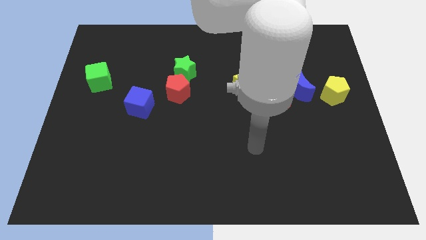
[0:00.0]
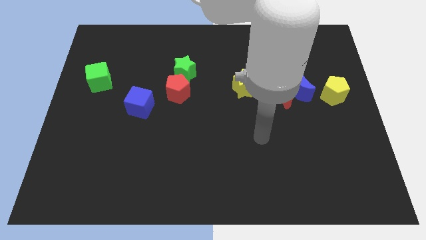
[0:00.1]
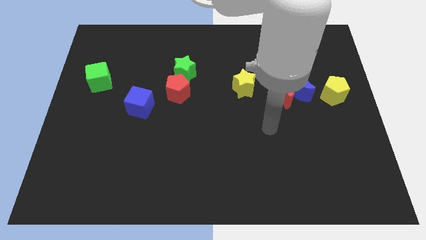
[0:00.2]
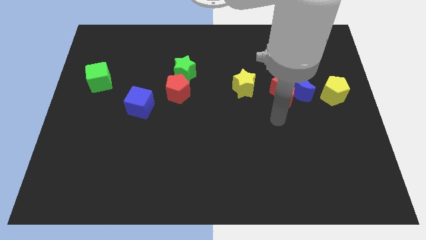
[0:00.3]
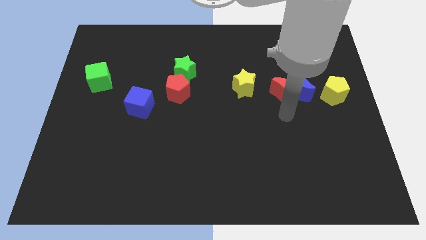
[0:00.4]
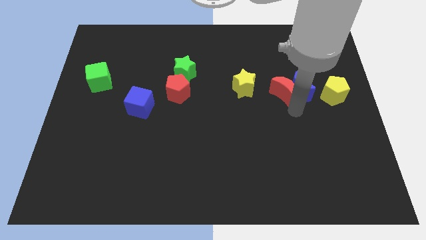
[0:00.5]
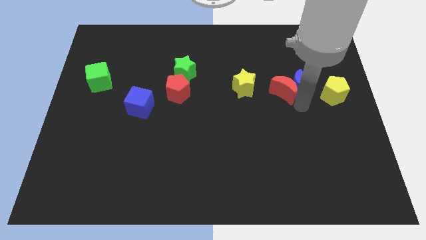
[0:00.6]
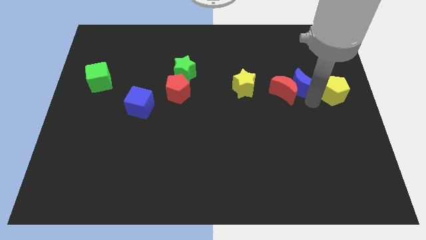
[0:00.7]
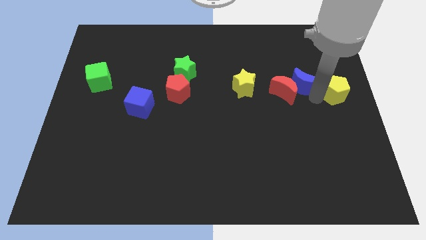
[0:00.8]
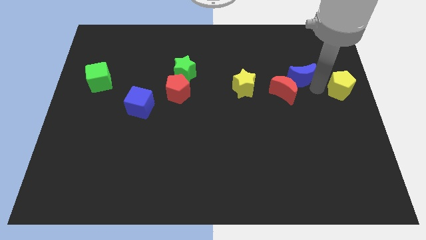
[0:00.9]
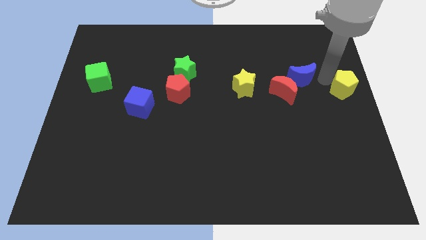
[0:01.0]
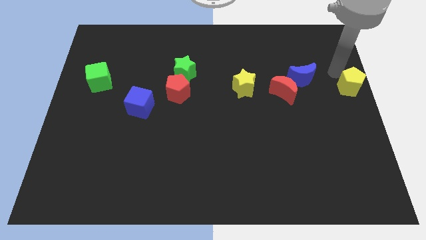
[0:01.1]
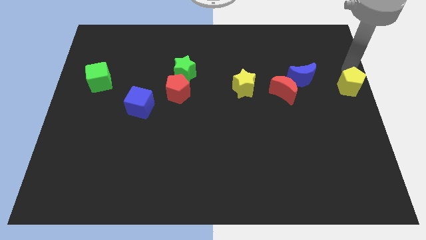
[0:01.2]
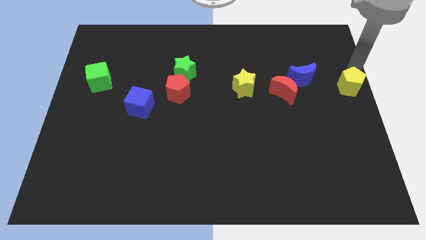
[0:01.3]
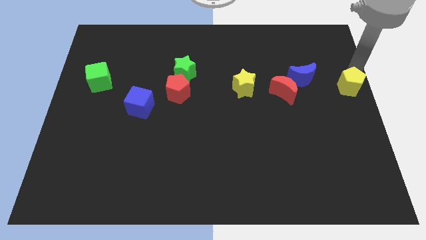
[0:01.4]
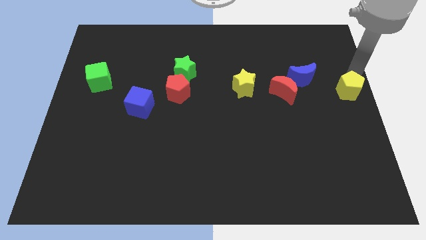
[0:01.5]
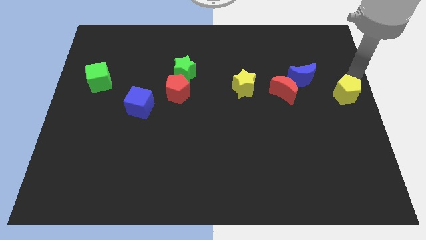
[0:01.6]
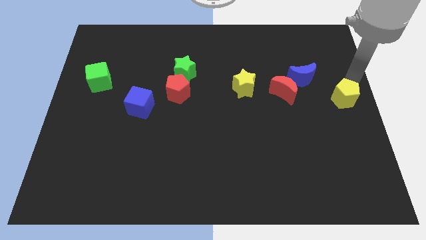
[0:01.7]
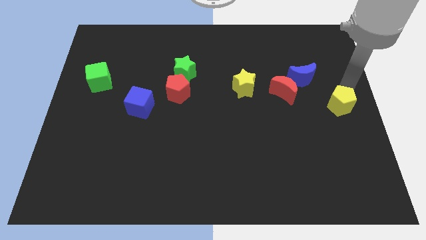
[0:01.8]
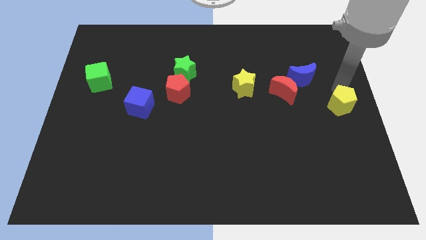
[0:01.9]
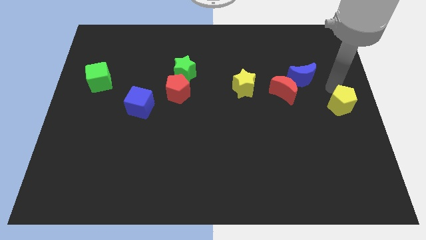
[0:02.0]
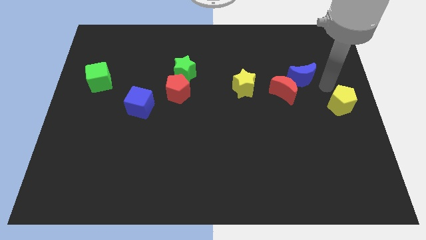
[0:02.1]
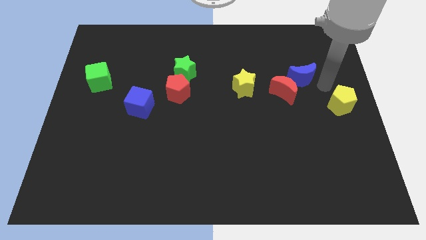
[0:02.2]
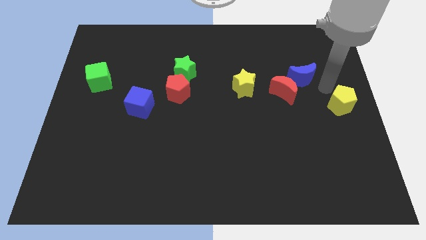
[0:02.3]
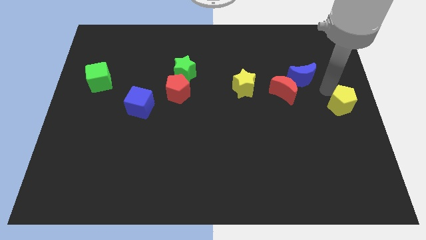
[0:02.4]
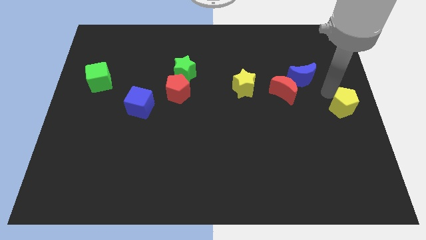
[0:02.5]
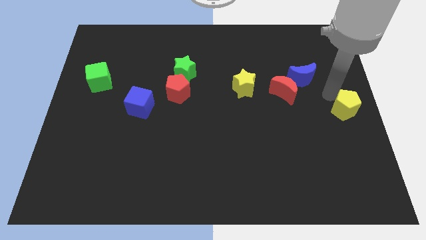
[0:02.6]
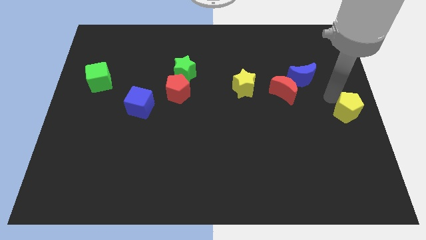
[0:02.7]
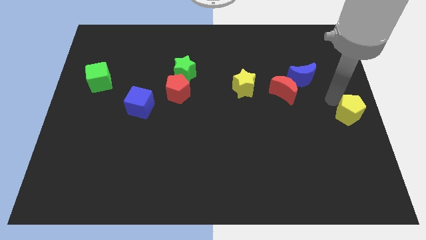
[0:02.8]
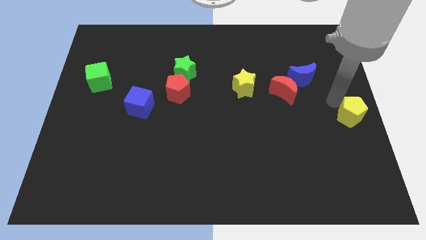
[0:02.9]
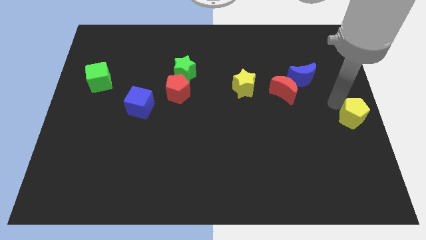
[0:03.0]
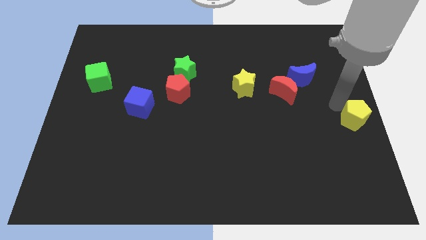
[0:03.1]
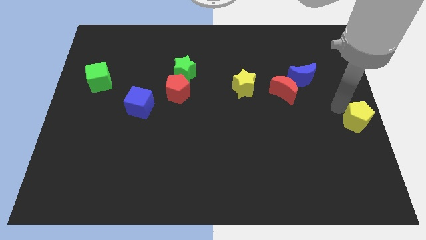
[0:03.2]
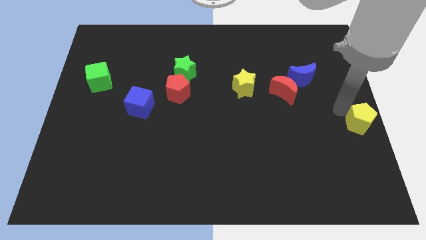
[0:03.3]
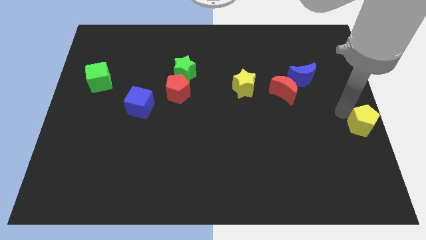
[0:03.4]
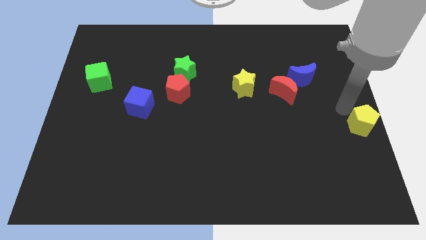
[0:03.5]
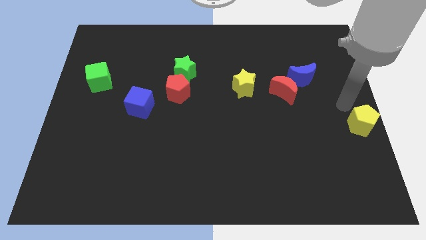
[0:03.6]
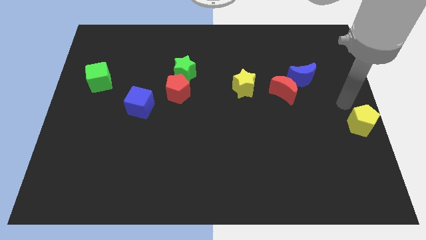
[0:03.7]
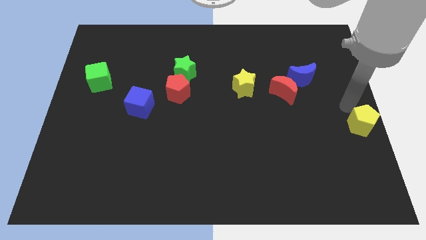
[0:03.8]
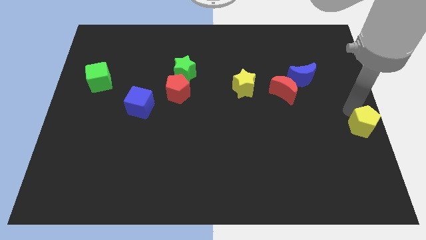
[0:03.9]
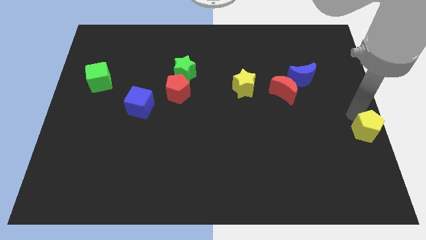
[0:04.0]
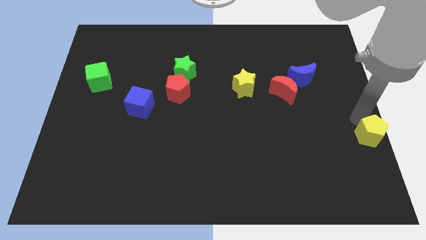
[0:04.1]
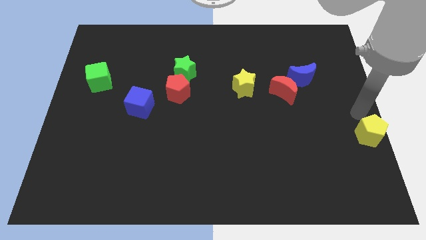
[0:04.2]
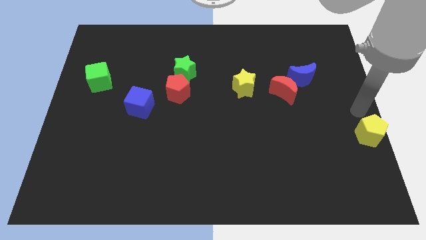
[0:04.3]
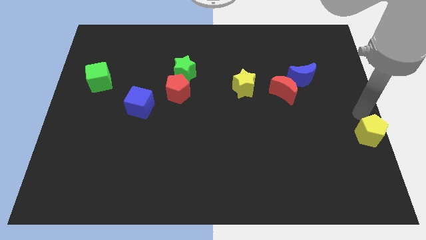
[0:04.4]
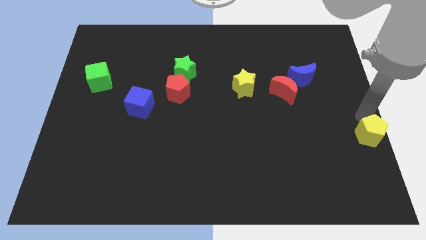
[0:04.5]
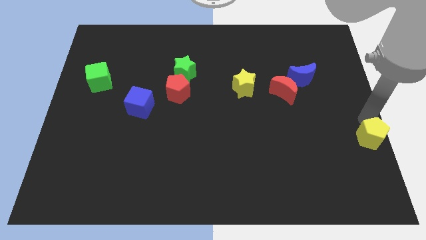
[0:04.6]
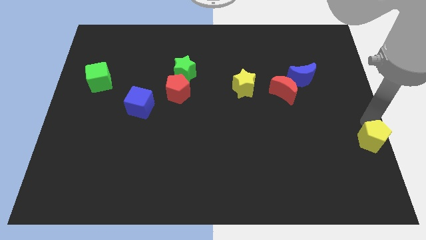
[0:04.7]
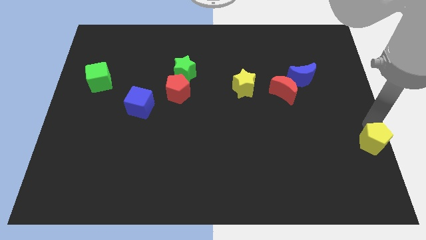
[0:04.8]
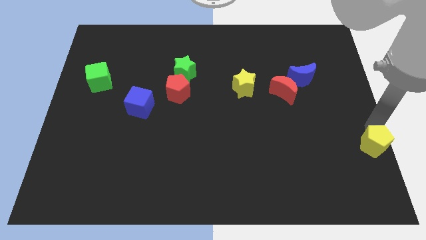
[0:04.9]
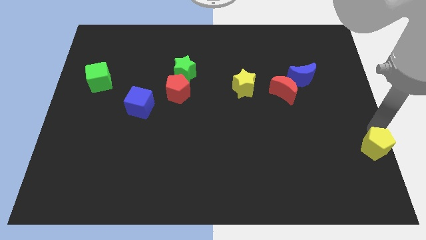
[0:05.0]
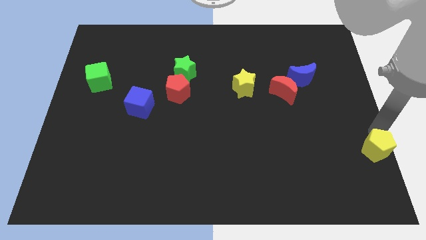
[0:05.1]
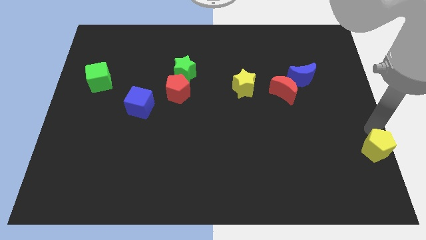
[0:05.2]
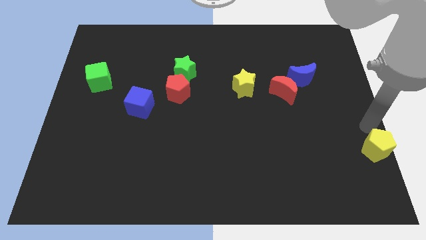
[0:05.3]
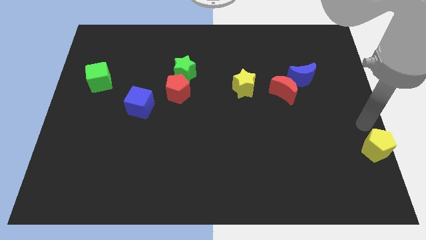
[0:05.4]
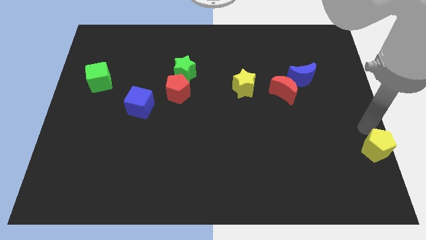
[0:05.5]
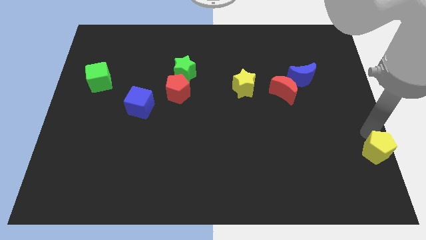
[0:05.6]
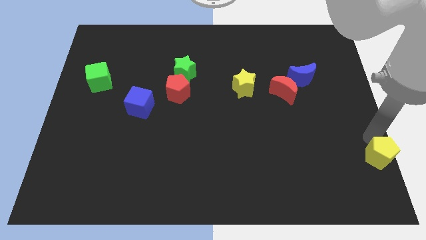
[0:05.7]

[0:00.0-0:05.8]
move the yellow pentagon to the lower right corner
